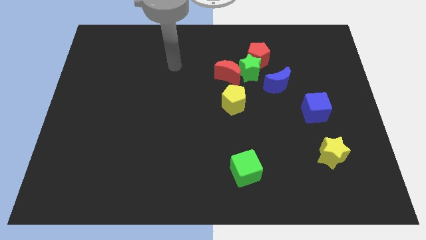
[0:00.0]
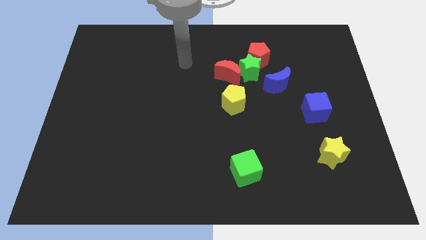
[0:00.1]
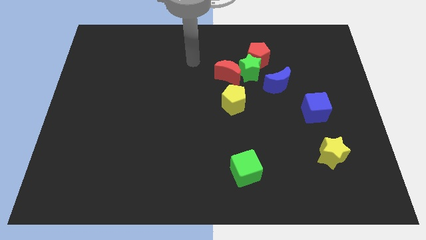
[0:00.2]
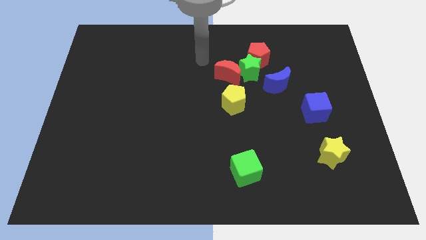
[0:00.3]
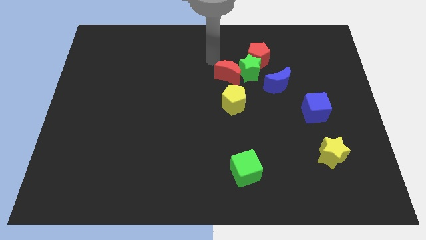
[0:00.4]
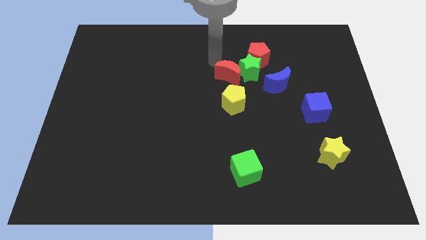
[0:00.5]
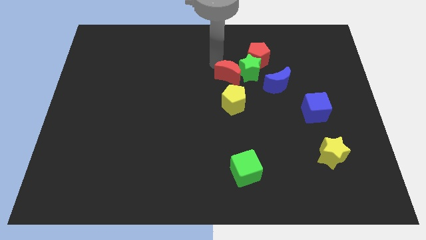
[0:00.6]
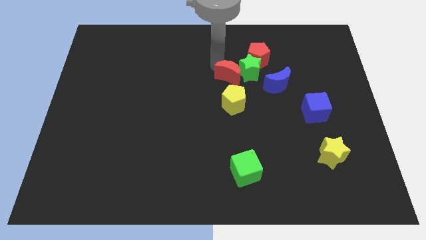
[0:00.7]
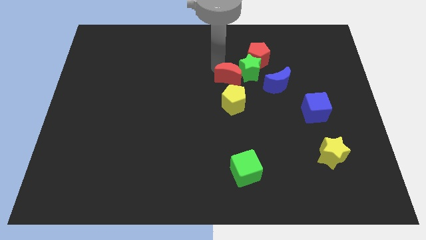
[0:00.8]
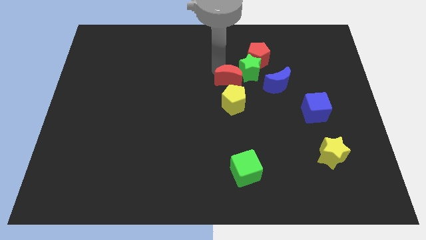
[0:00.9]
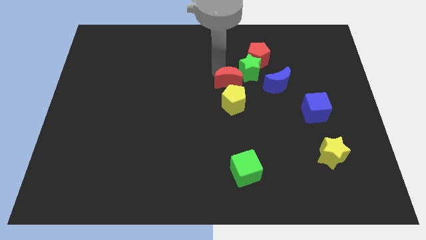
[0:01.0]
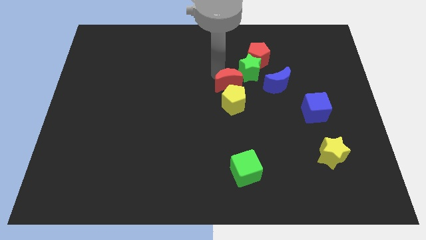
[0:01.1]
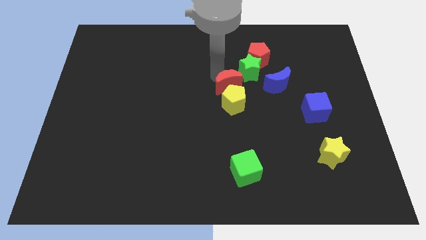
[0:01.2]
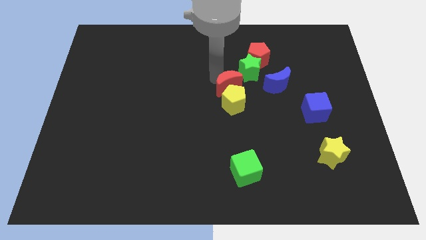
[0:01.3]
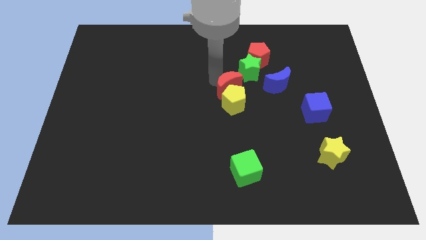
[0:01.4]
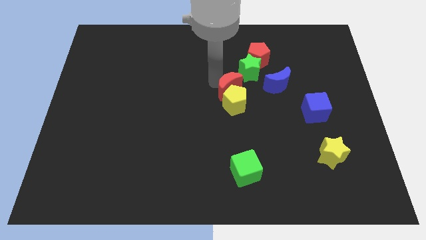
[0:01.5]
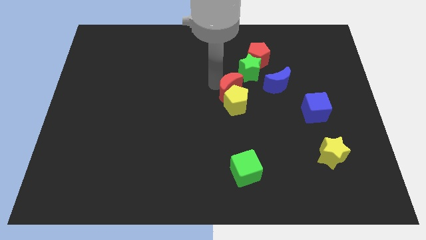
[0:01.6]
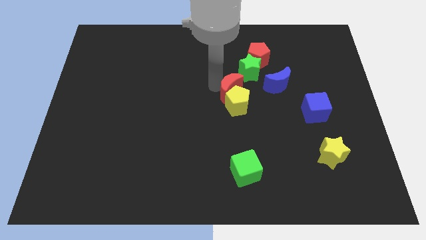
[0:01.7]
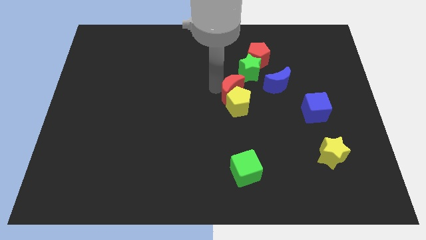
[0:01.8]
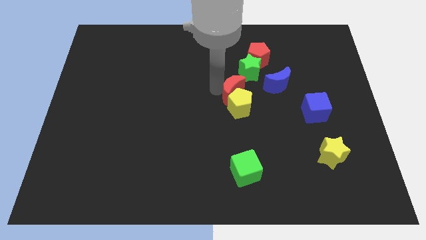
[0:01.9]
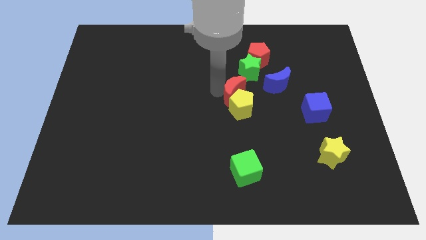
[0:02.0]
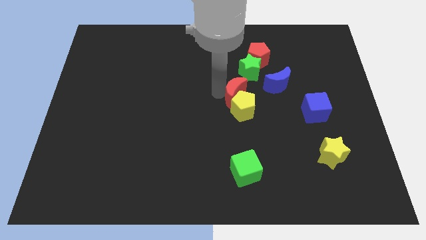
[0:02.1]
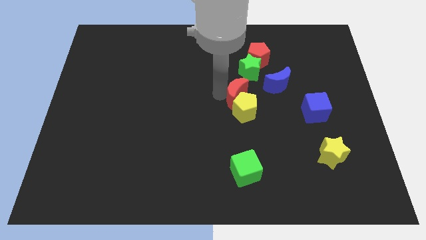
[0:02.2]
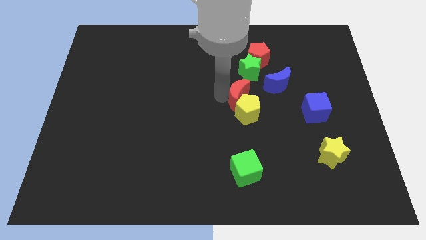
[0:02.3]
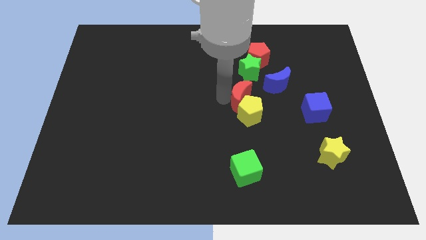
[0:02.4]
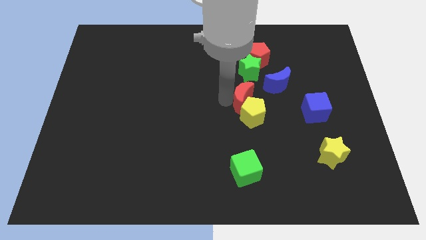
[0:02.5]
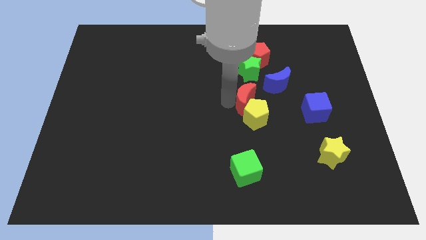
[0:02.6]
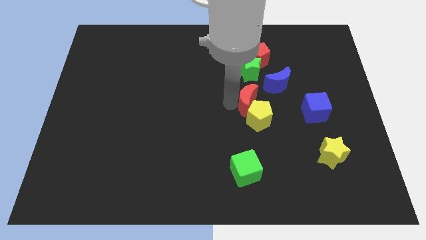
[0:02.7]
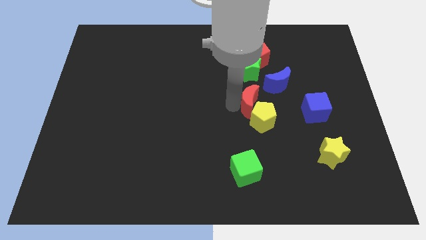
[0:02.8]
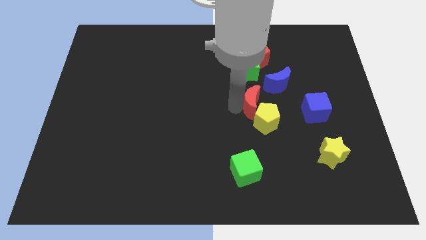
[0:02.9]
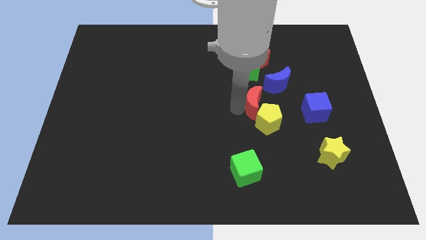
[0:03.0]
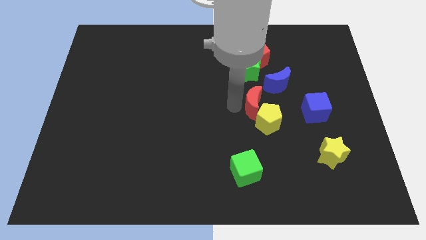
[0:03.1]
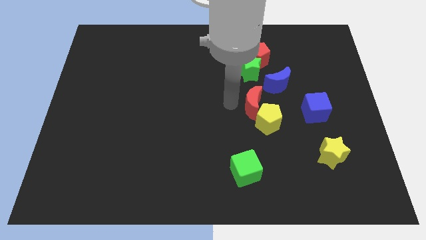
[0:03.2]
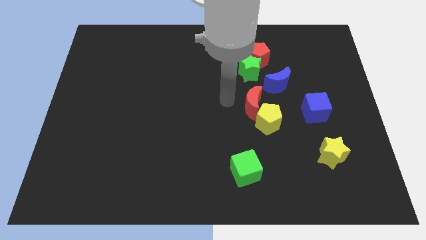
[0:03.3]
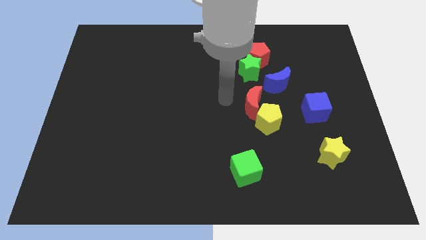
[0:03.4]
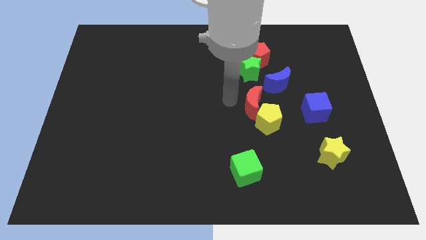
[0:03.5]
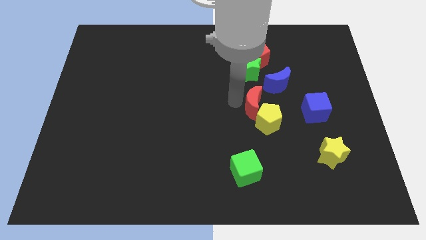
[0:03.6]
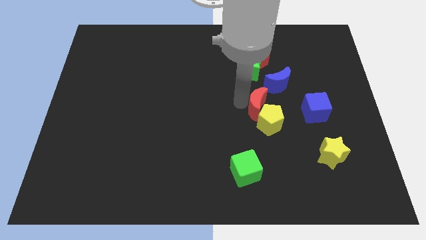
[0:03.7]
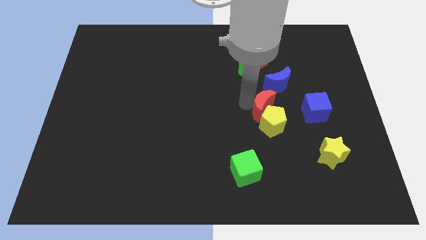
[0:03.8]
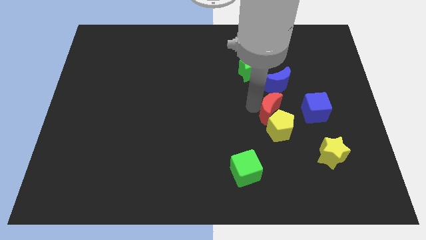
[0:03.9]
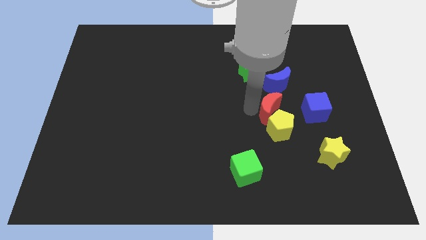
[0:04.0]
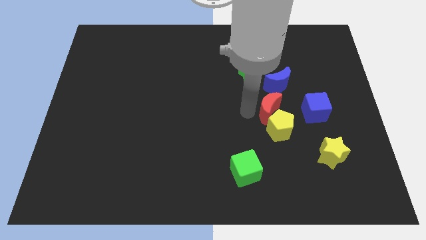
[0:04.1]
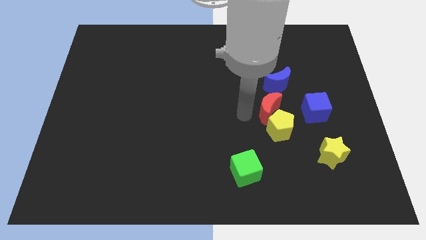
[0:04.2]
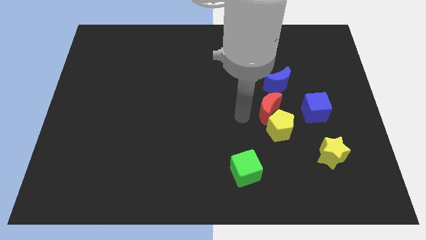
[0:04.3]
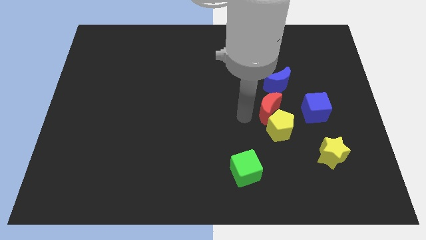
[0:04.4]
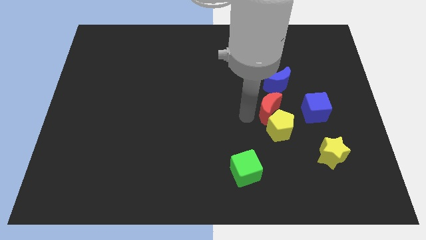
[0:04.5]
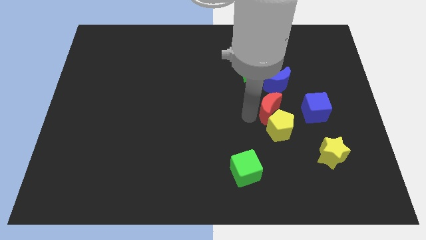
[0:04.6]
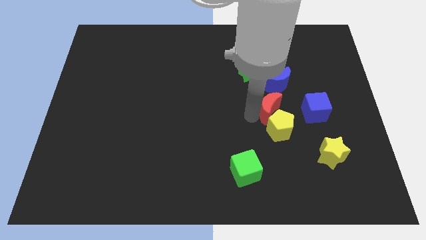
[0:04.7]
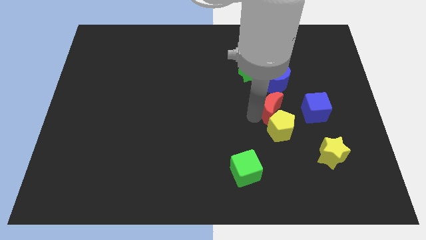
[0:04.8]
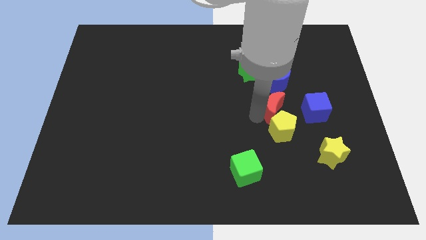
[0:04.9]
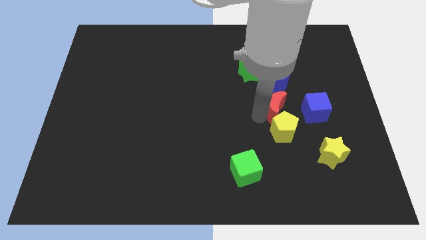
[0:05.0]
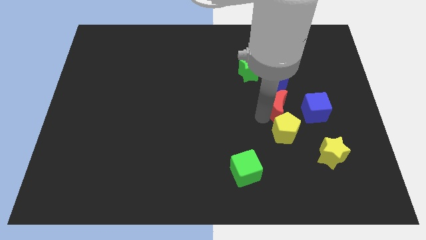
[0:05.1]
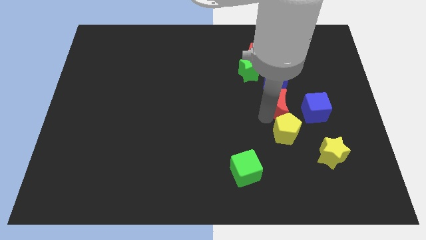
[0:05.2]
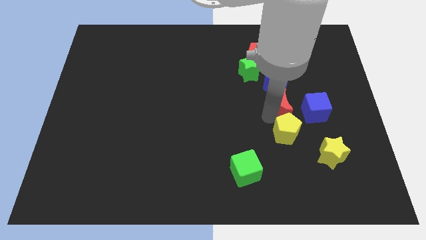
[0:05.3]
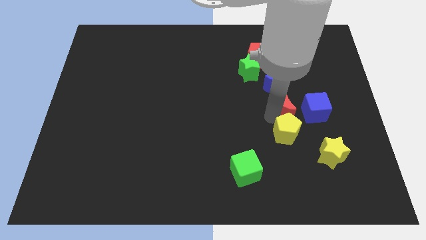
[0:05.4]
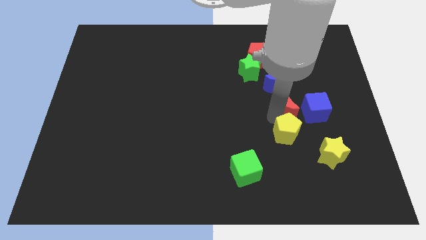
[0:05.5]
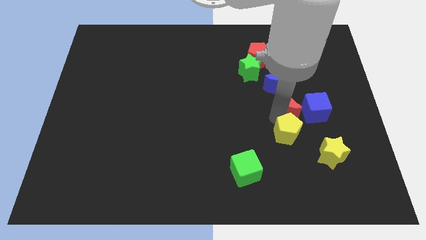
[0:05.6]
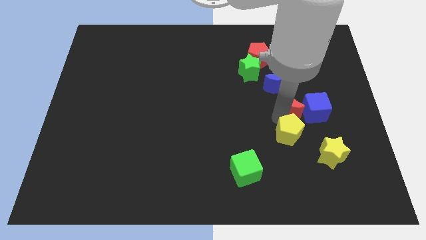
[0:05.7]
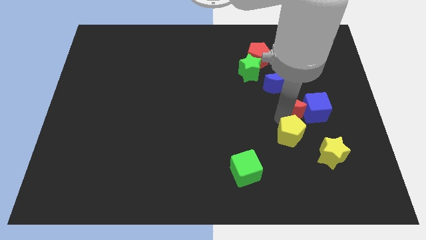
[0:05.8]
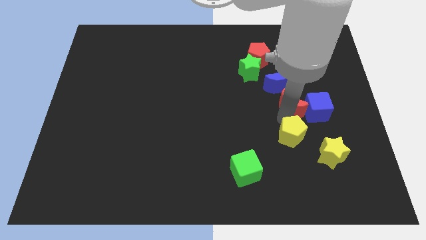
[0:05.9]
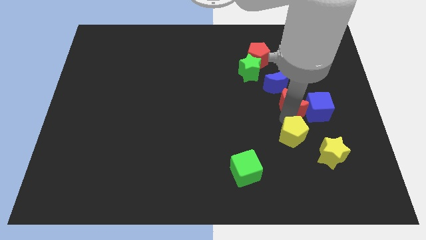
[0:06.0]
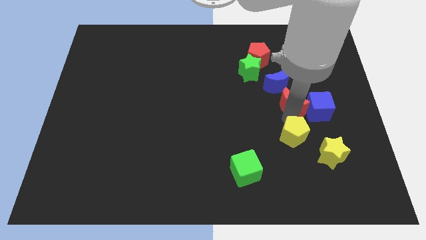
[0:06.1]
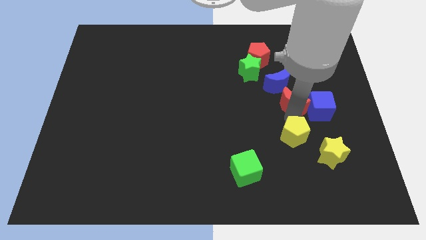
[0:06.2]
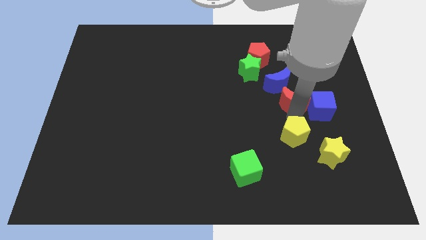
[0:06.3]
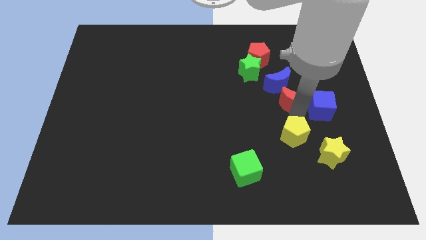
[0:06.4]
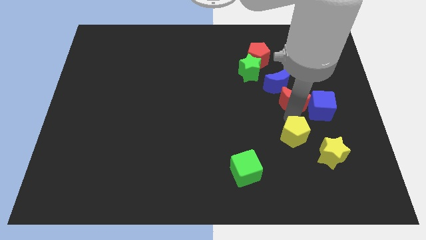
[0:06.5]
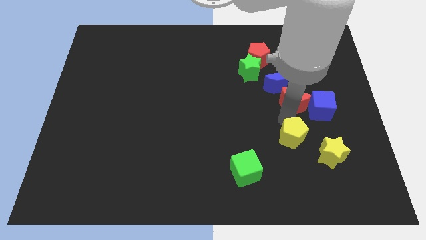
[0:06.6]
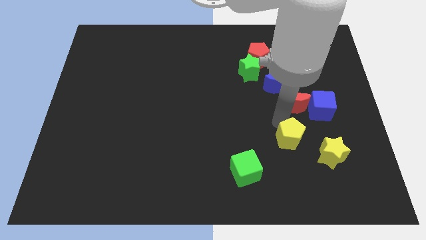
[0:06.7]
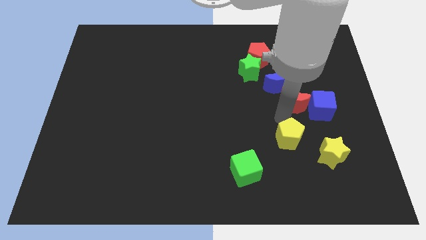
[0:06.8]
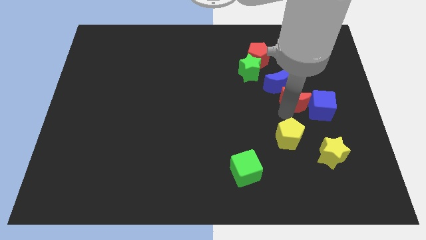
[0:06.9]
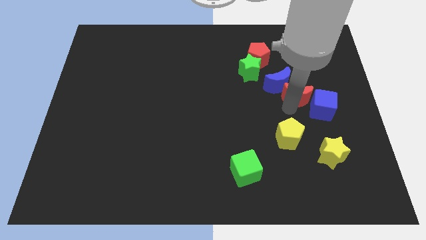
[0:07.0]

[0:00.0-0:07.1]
move the red moon to the right side of the blue moon

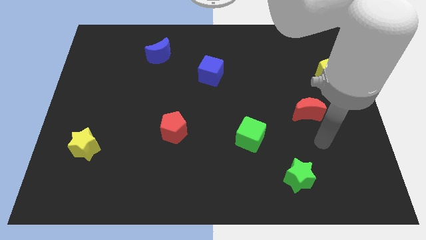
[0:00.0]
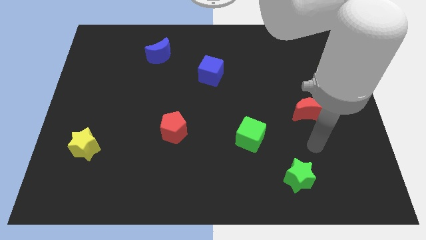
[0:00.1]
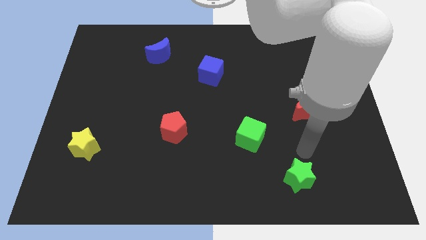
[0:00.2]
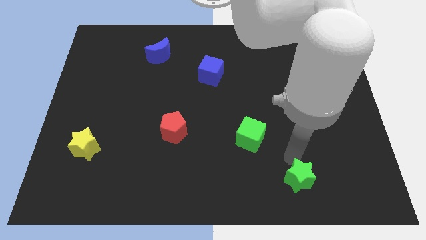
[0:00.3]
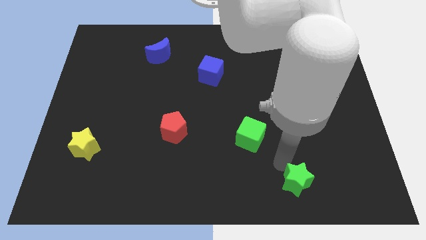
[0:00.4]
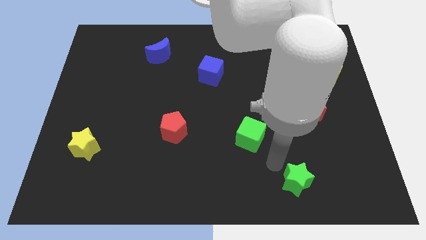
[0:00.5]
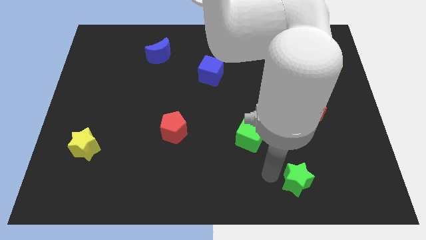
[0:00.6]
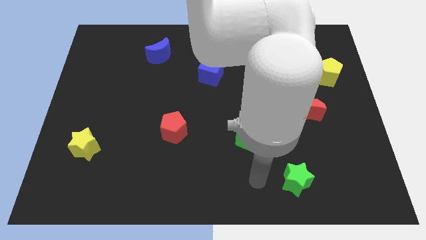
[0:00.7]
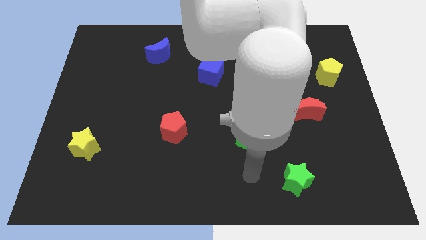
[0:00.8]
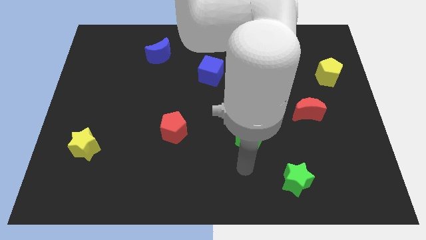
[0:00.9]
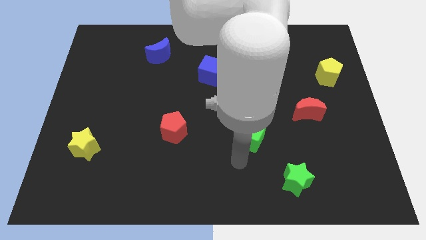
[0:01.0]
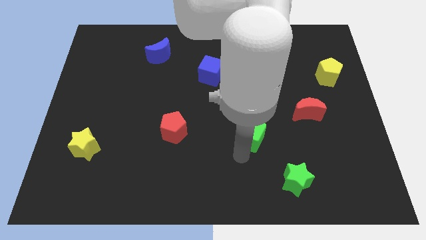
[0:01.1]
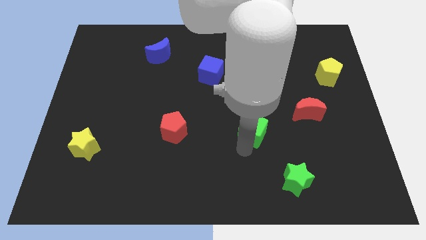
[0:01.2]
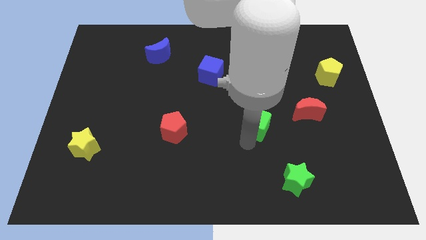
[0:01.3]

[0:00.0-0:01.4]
push the green cube to the left of the red moon
